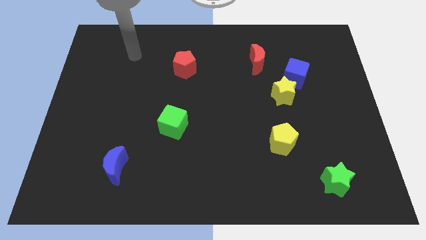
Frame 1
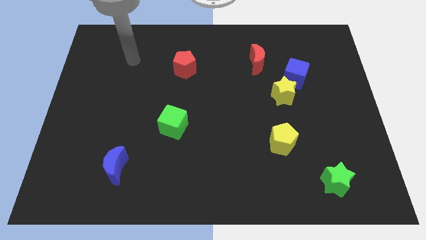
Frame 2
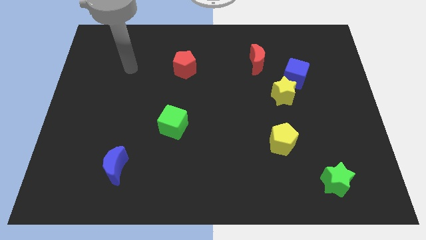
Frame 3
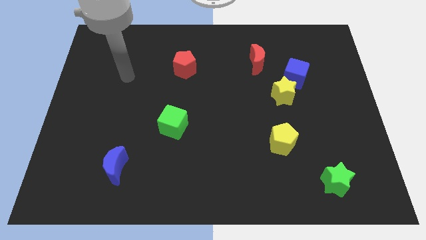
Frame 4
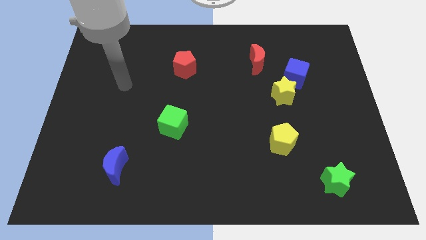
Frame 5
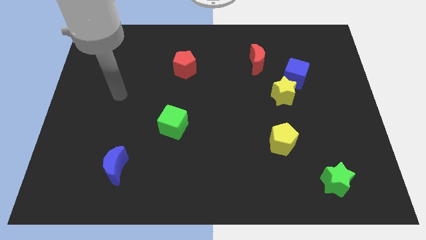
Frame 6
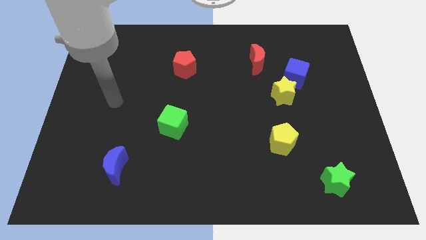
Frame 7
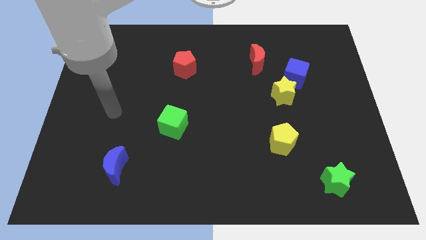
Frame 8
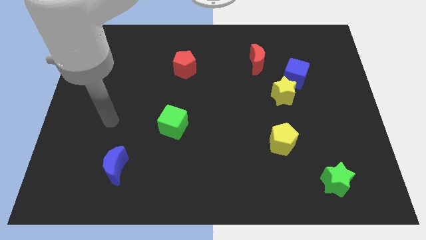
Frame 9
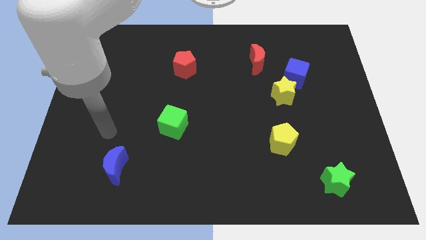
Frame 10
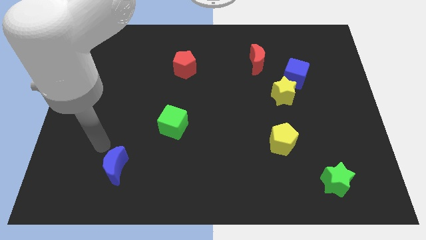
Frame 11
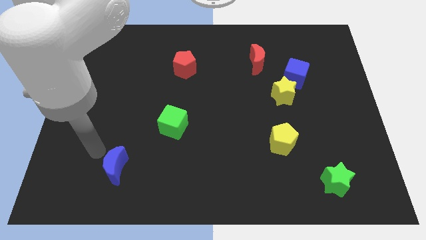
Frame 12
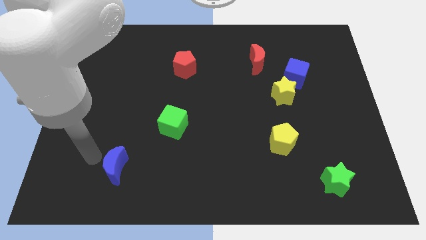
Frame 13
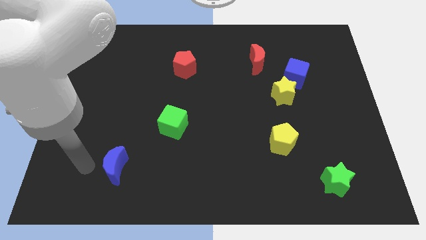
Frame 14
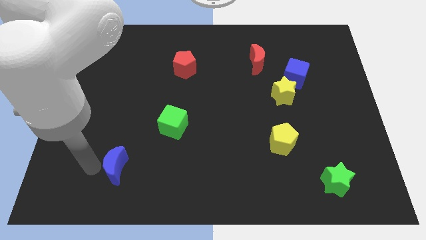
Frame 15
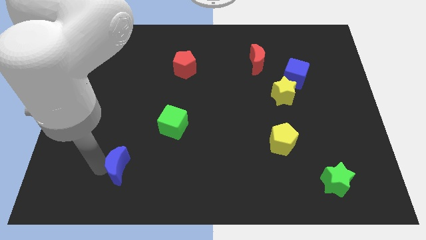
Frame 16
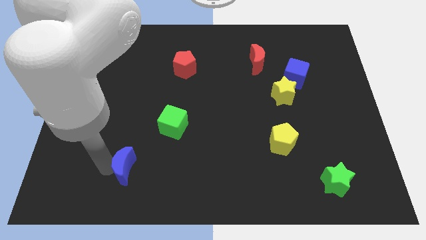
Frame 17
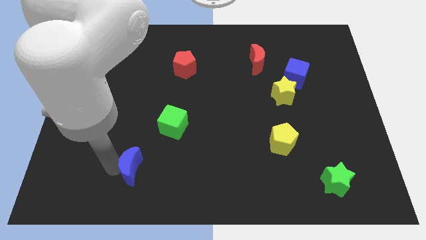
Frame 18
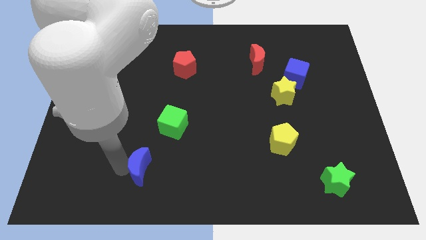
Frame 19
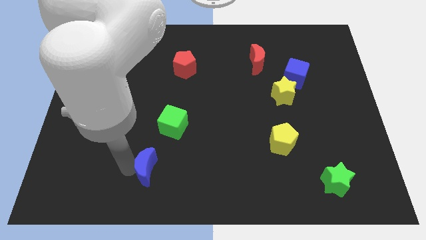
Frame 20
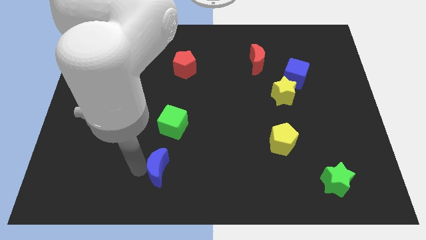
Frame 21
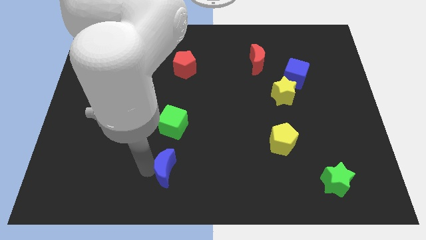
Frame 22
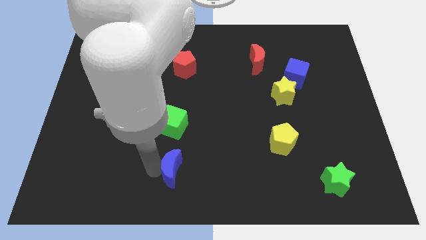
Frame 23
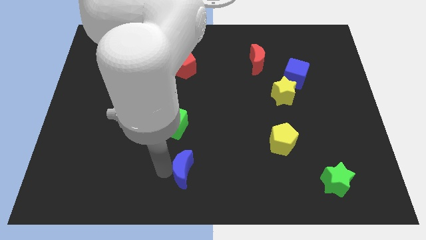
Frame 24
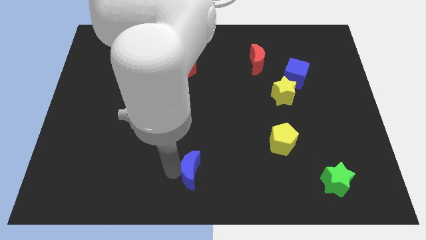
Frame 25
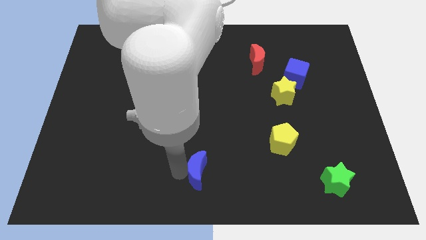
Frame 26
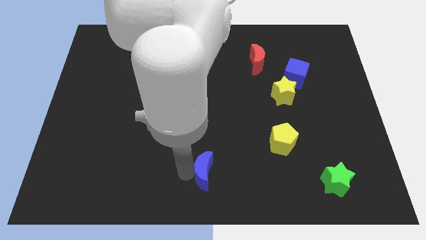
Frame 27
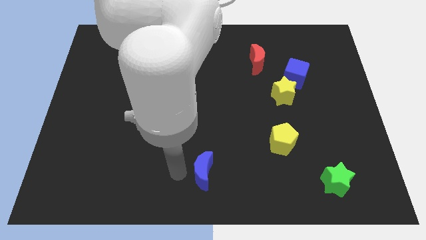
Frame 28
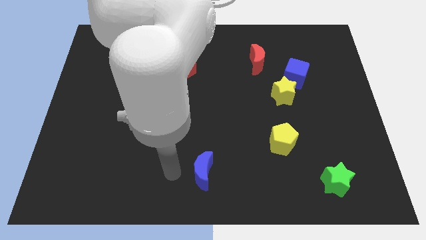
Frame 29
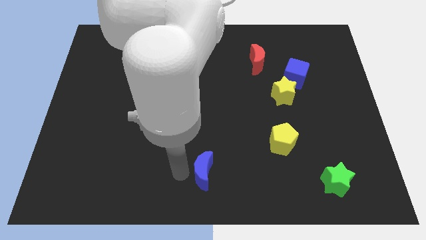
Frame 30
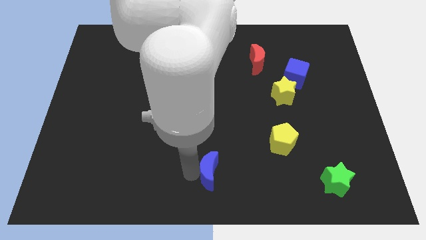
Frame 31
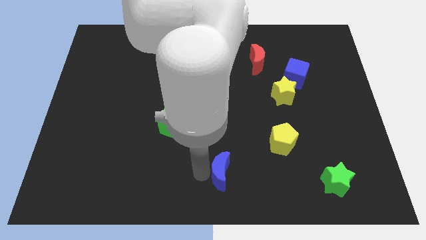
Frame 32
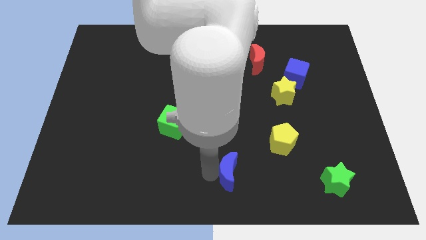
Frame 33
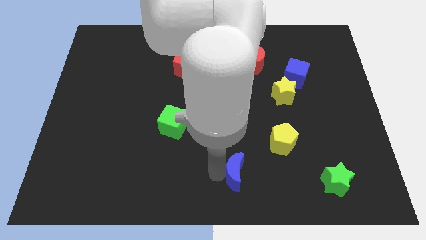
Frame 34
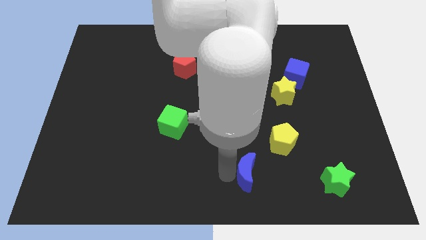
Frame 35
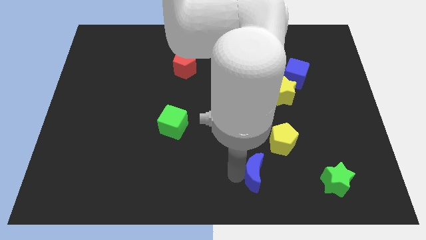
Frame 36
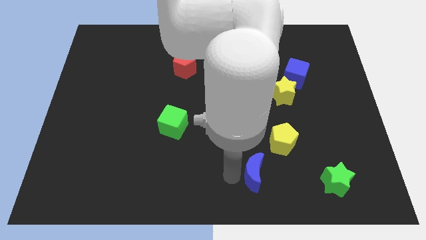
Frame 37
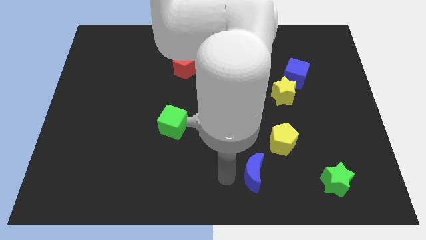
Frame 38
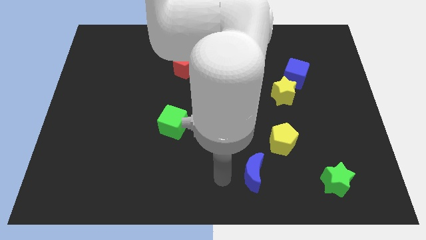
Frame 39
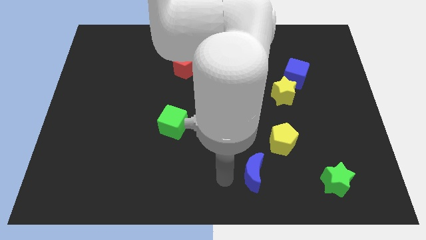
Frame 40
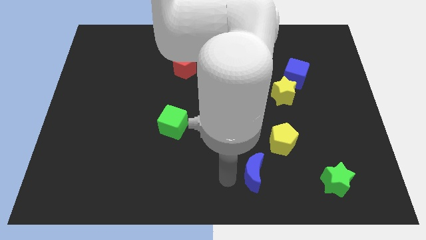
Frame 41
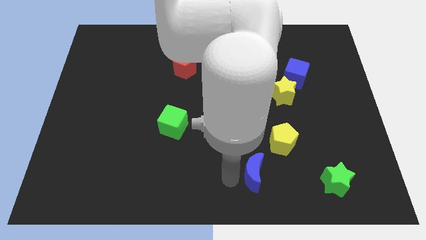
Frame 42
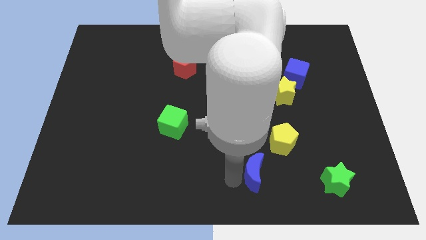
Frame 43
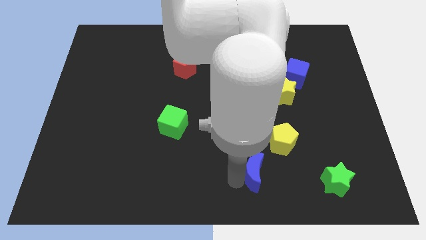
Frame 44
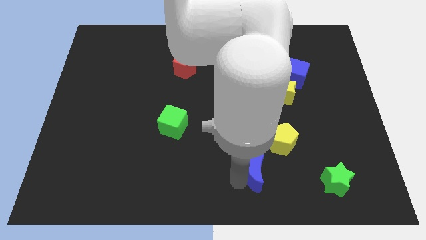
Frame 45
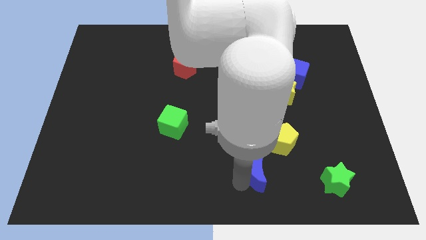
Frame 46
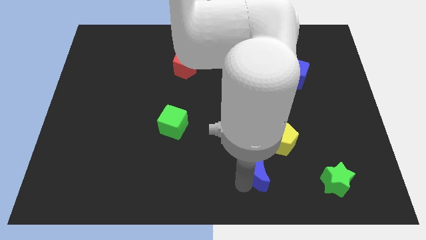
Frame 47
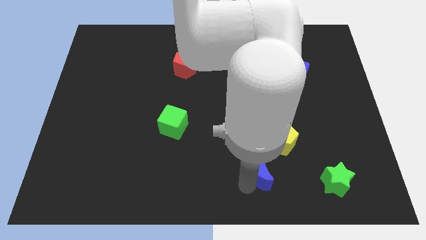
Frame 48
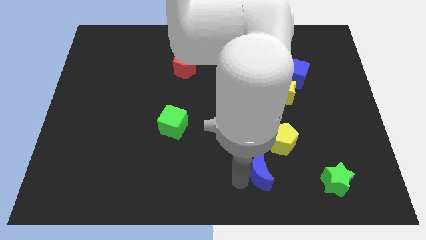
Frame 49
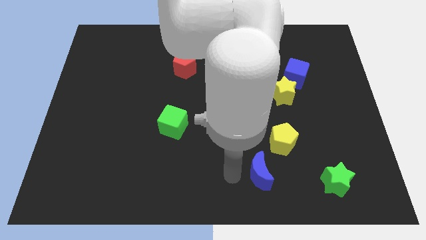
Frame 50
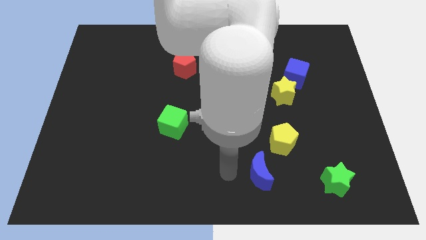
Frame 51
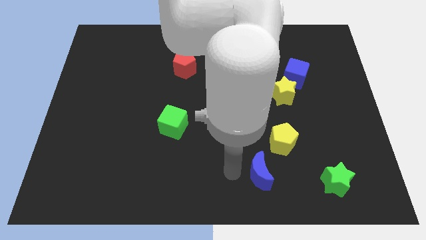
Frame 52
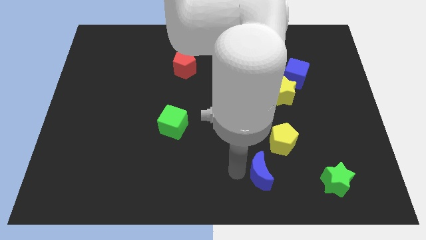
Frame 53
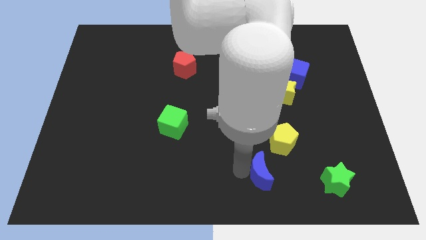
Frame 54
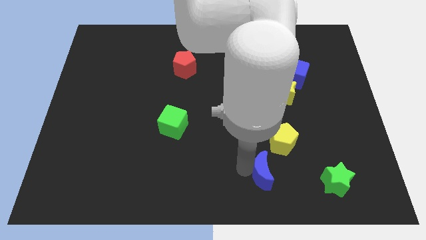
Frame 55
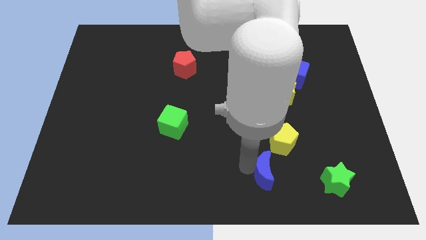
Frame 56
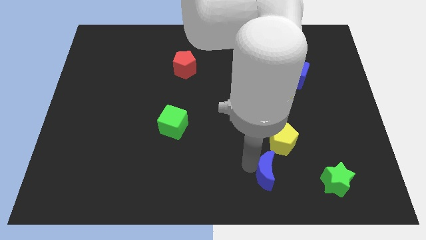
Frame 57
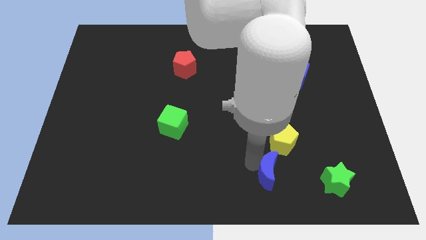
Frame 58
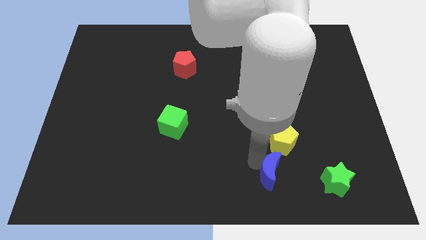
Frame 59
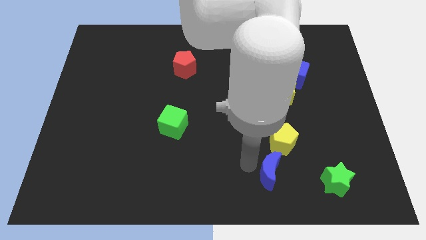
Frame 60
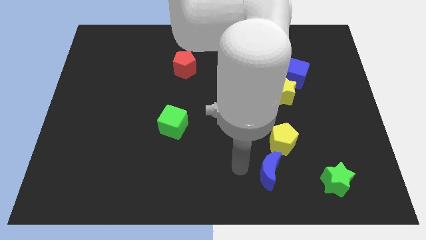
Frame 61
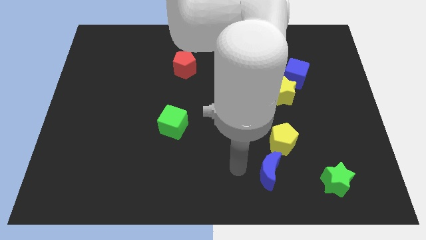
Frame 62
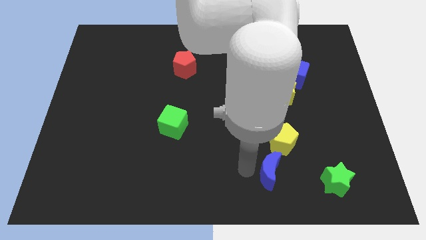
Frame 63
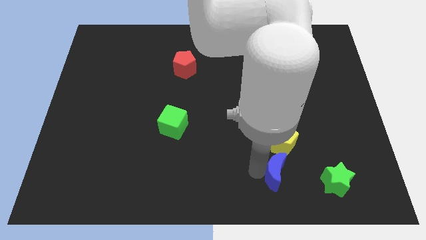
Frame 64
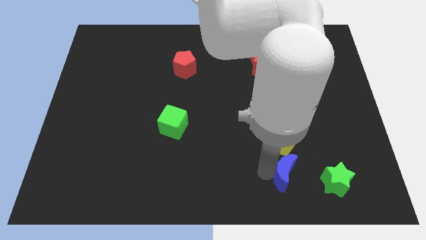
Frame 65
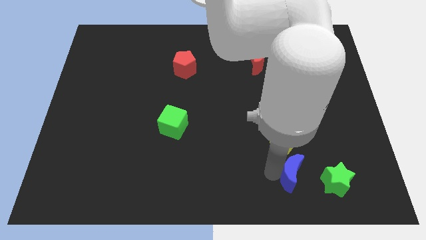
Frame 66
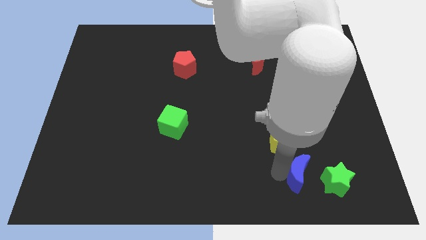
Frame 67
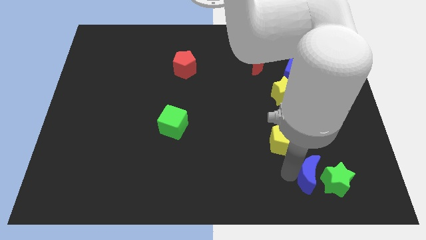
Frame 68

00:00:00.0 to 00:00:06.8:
push the blue moon towards the green star

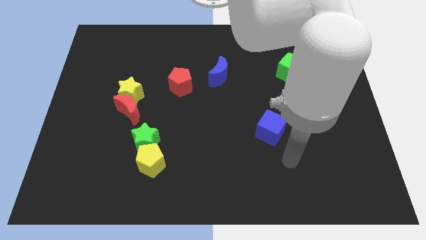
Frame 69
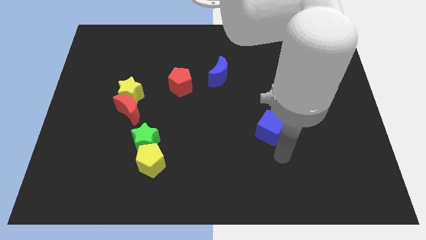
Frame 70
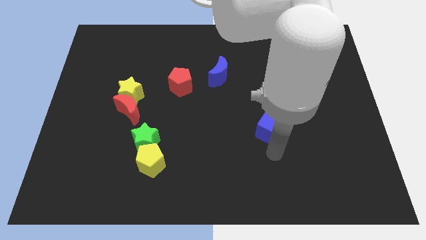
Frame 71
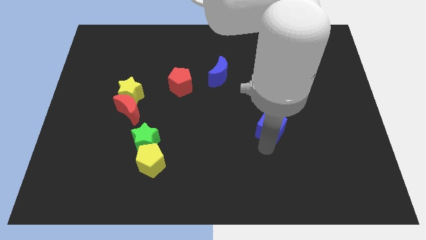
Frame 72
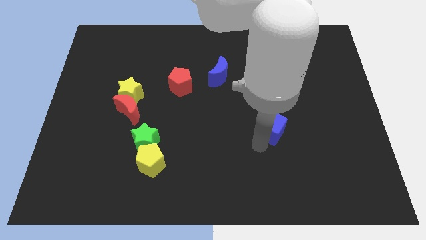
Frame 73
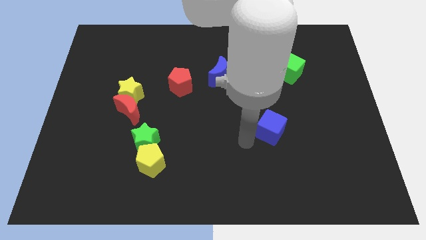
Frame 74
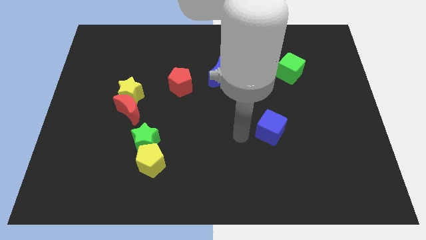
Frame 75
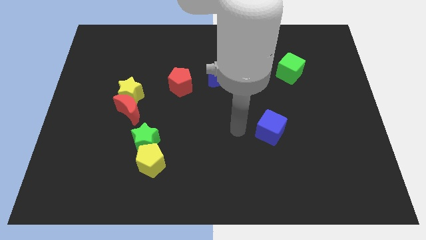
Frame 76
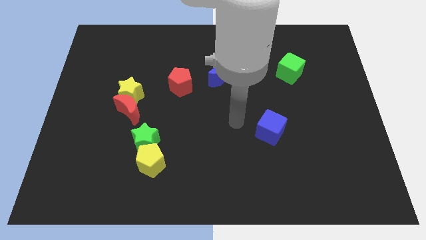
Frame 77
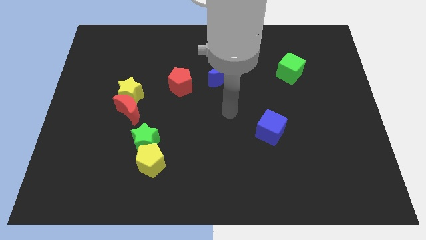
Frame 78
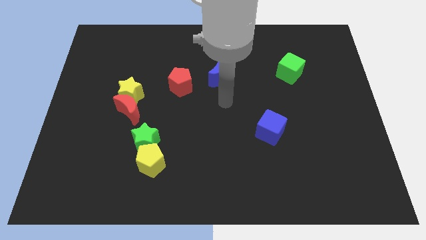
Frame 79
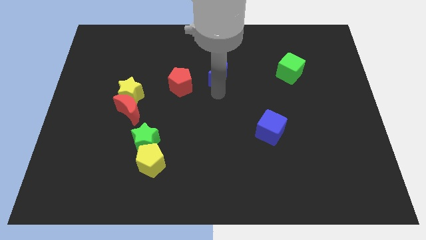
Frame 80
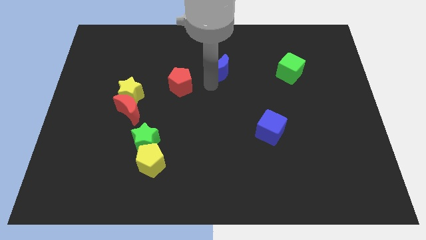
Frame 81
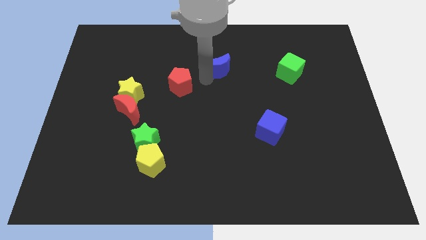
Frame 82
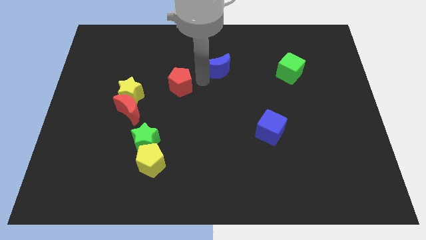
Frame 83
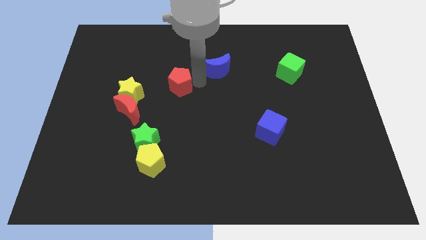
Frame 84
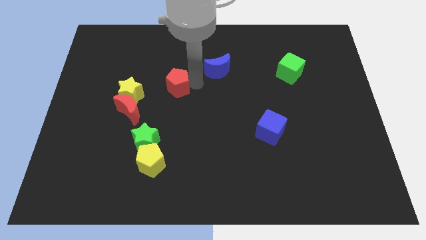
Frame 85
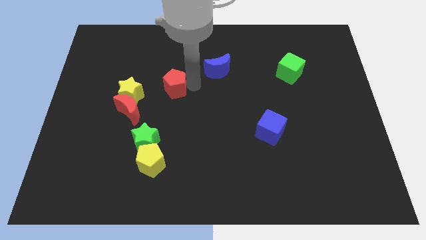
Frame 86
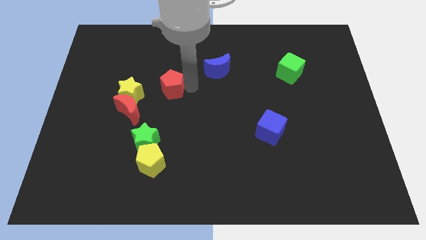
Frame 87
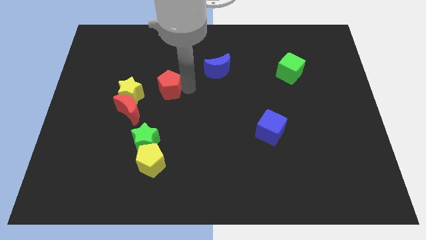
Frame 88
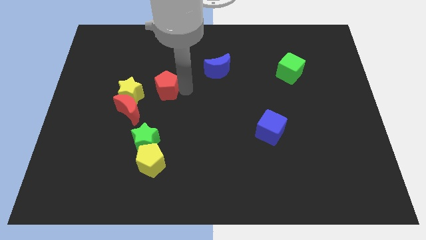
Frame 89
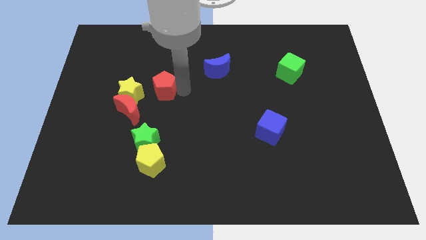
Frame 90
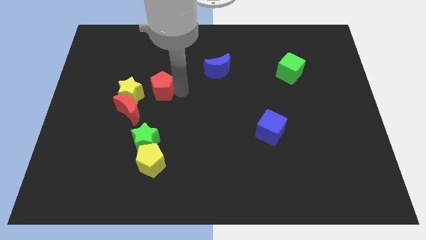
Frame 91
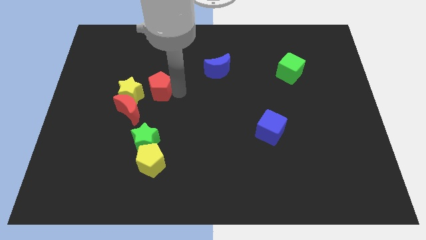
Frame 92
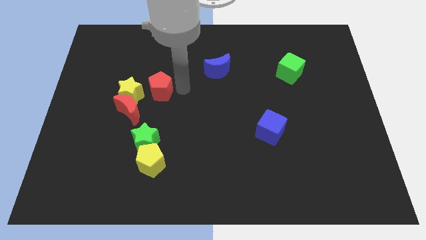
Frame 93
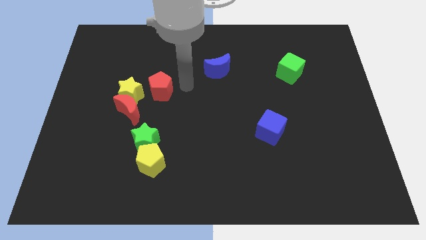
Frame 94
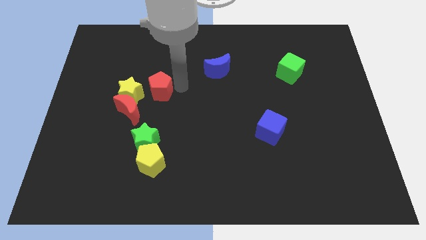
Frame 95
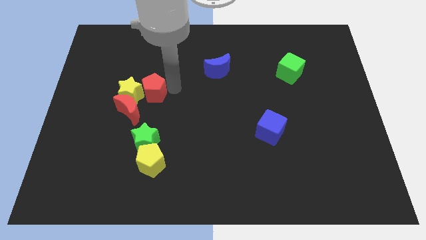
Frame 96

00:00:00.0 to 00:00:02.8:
put the red pentagon close to the yellow star
